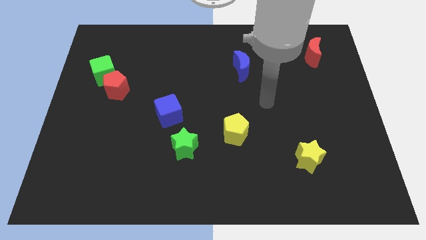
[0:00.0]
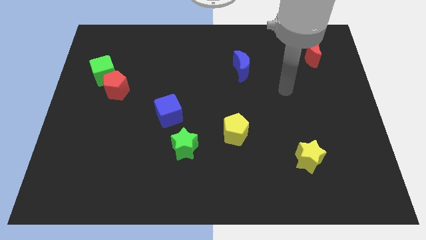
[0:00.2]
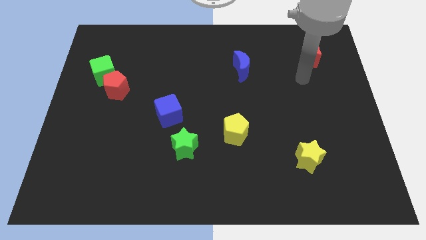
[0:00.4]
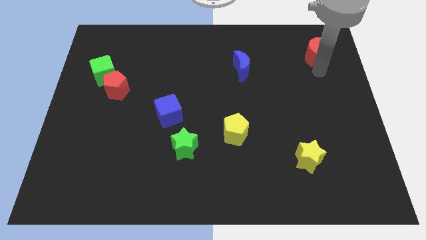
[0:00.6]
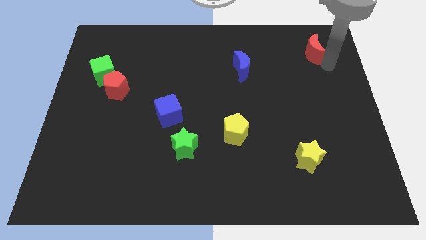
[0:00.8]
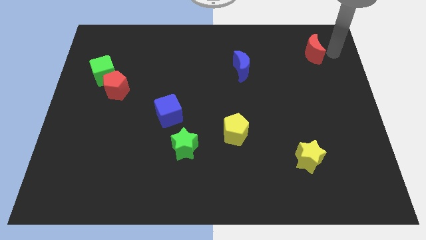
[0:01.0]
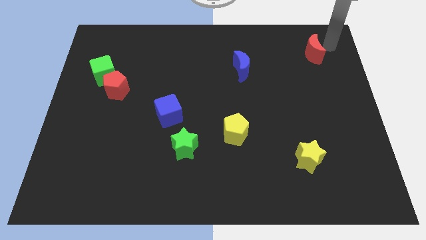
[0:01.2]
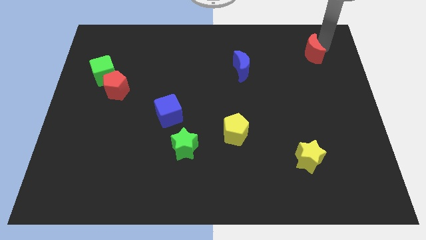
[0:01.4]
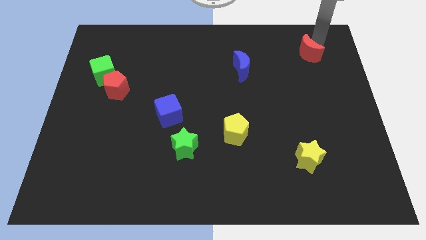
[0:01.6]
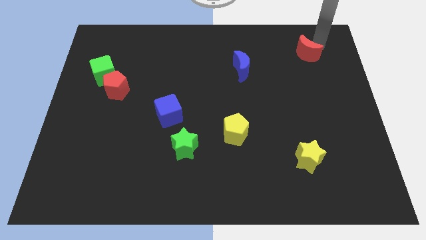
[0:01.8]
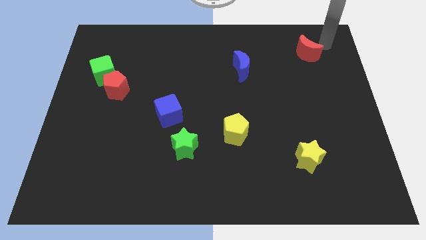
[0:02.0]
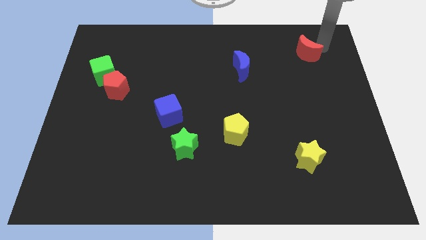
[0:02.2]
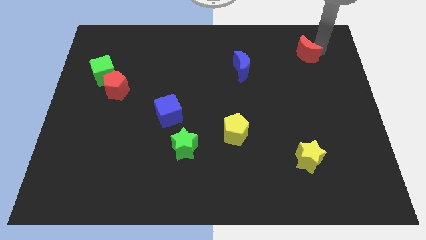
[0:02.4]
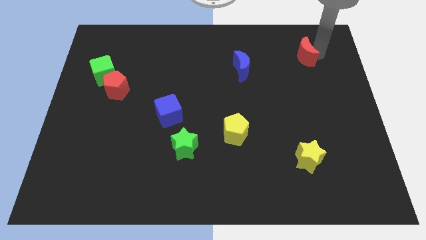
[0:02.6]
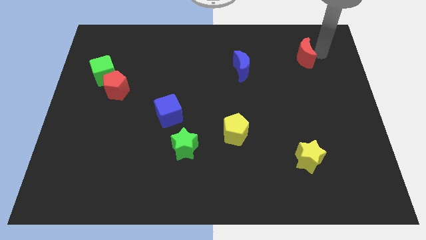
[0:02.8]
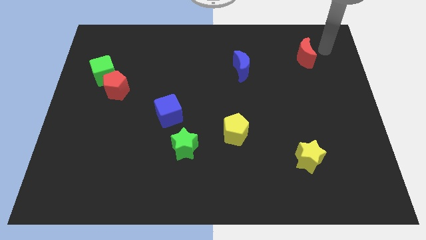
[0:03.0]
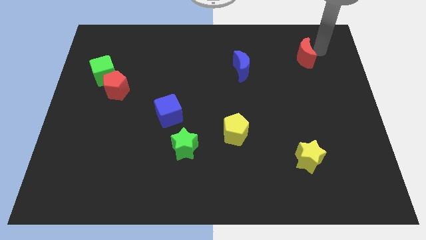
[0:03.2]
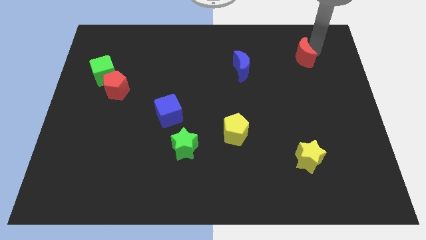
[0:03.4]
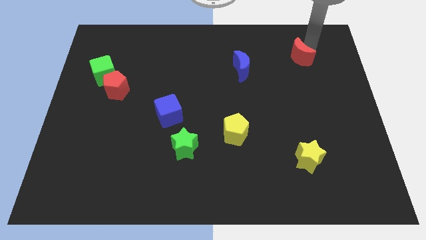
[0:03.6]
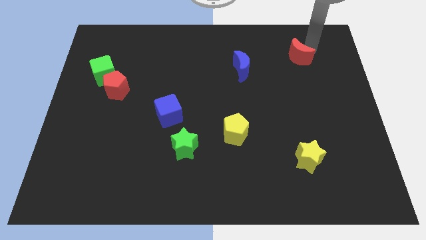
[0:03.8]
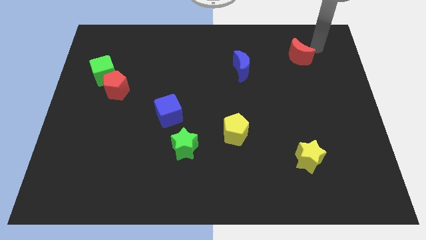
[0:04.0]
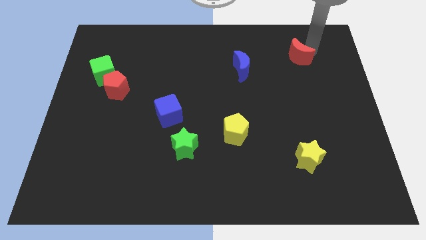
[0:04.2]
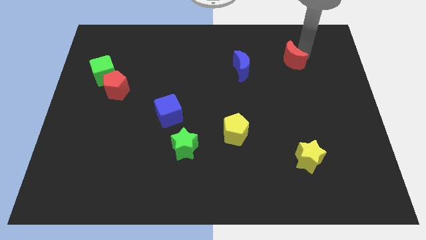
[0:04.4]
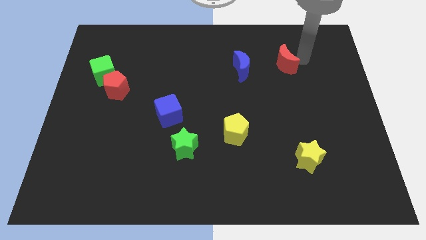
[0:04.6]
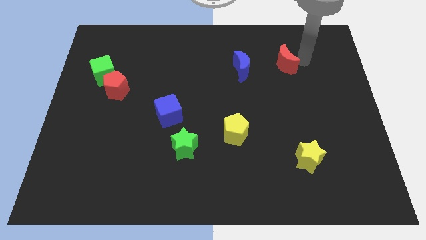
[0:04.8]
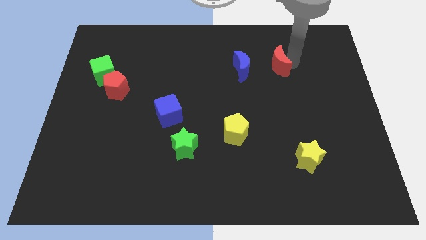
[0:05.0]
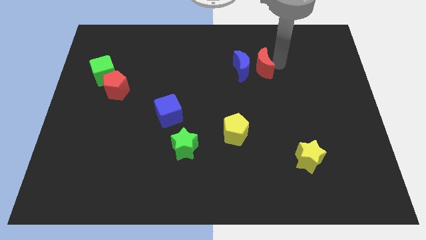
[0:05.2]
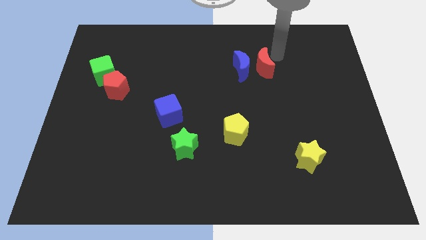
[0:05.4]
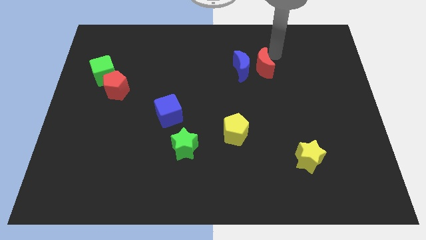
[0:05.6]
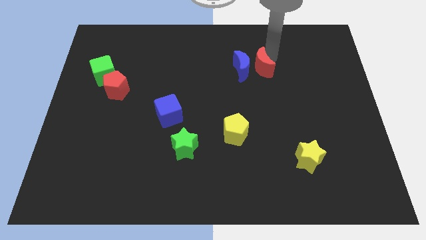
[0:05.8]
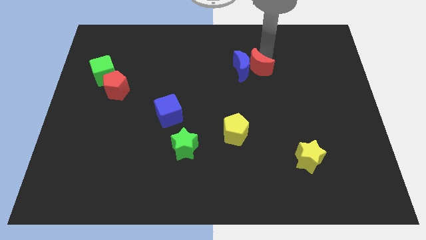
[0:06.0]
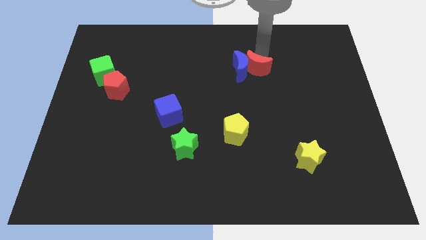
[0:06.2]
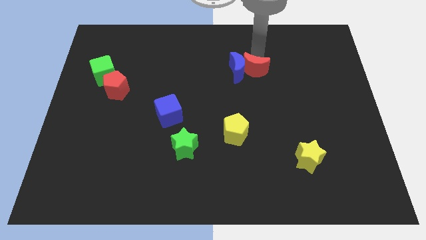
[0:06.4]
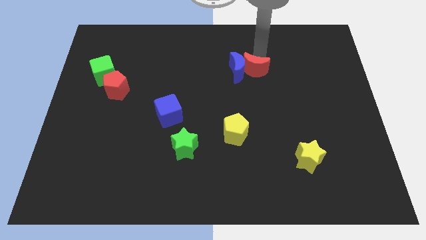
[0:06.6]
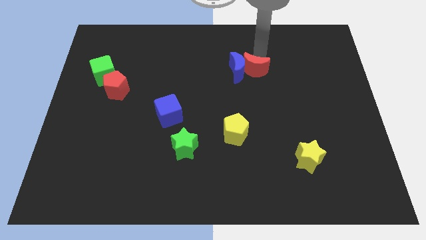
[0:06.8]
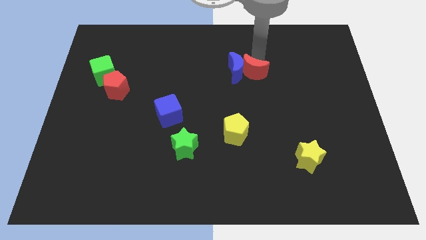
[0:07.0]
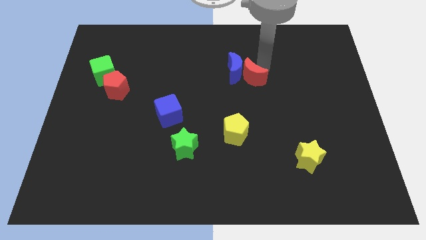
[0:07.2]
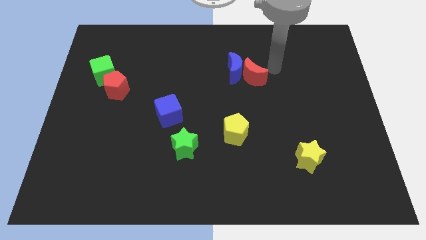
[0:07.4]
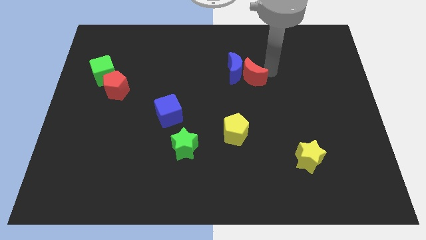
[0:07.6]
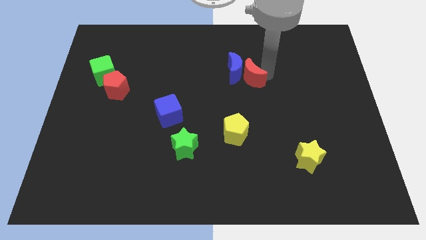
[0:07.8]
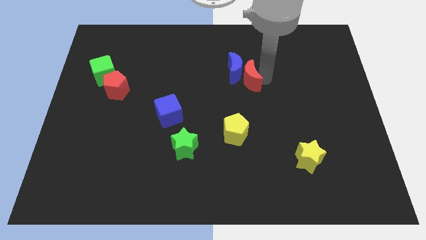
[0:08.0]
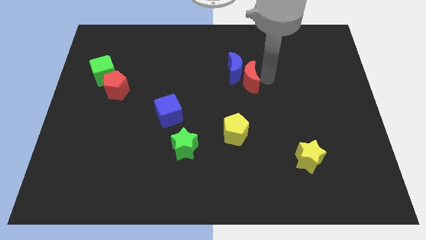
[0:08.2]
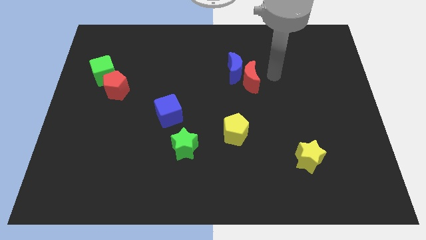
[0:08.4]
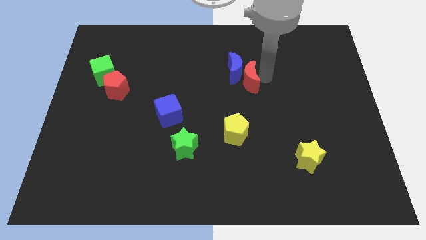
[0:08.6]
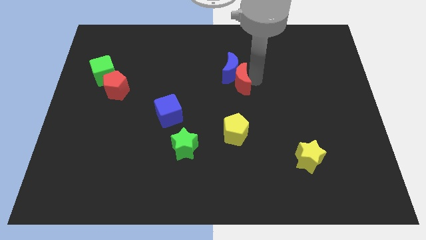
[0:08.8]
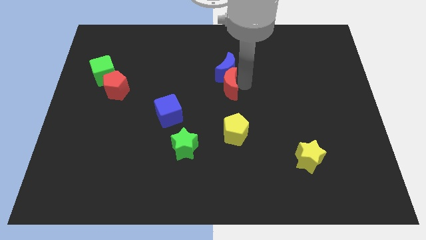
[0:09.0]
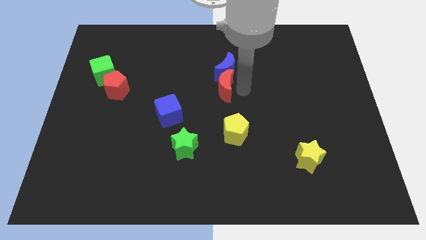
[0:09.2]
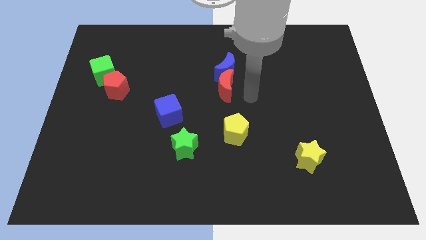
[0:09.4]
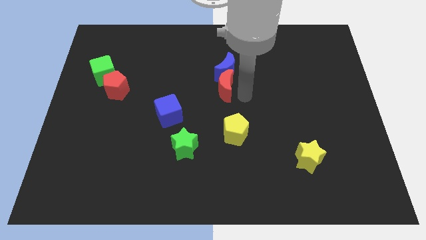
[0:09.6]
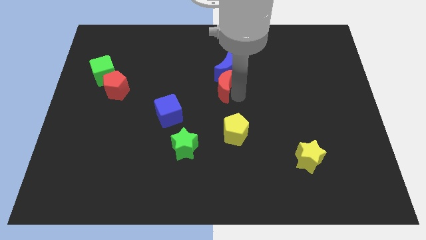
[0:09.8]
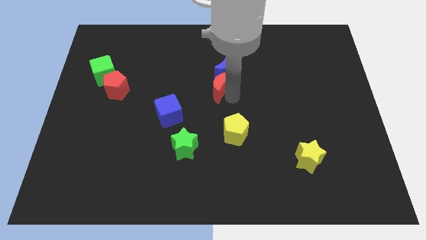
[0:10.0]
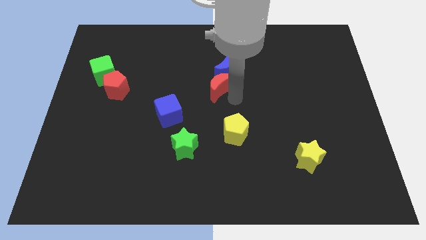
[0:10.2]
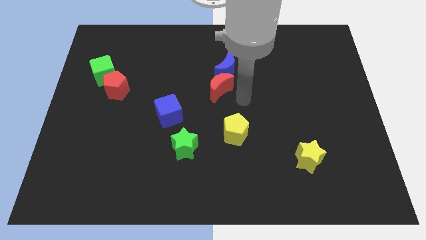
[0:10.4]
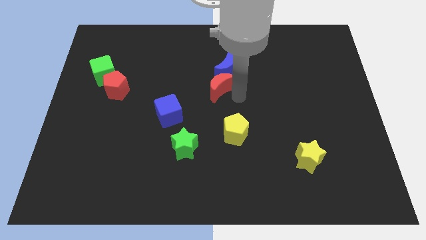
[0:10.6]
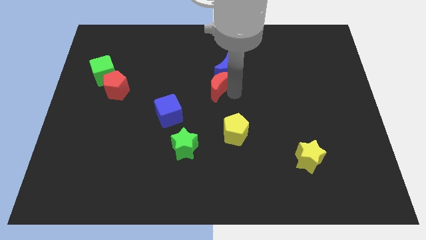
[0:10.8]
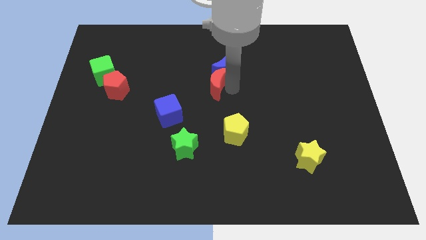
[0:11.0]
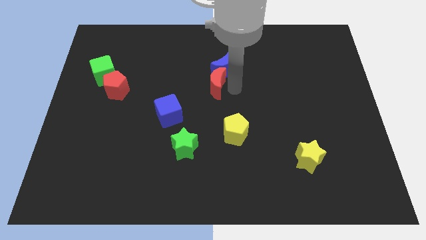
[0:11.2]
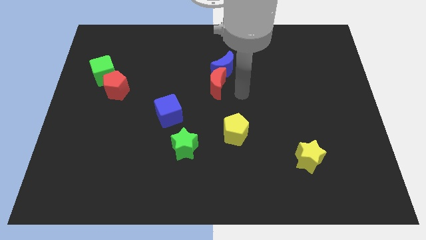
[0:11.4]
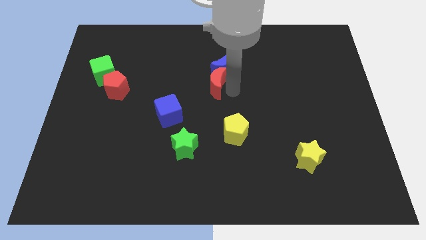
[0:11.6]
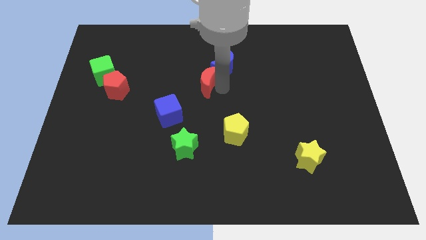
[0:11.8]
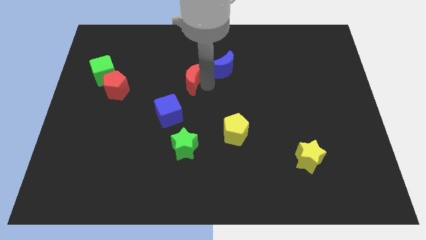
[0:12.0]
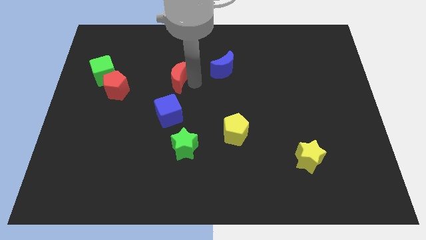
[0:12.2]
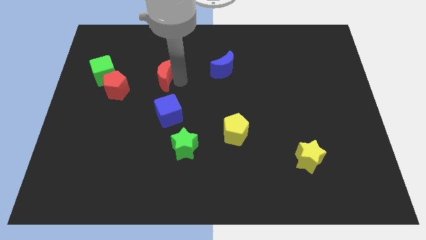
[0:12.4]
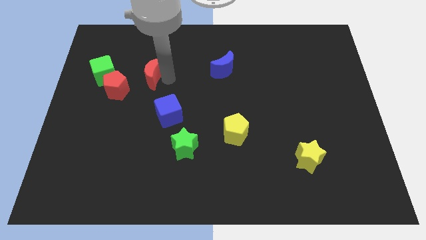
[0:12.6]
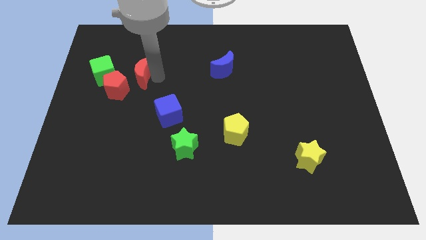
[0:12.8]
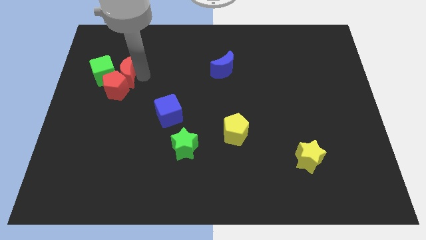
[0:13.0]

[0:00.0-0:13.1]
move the red moon close to the green cube

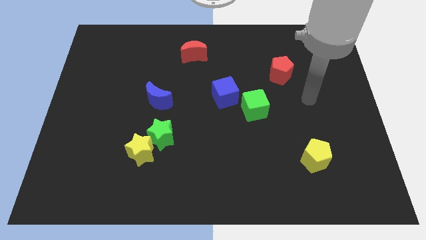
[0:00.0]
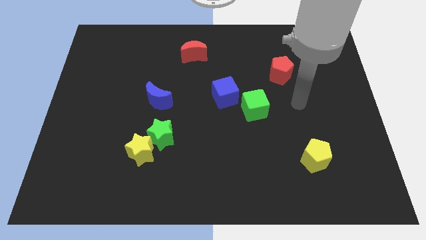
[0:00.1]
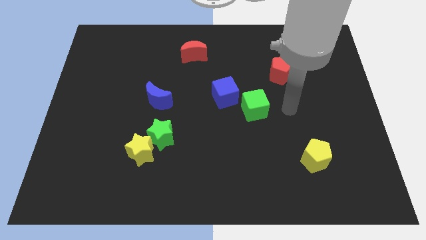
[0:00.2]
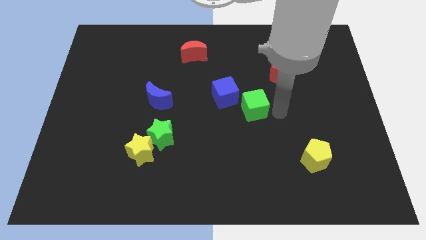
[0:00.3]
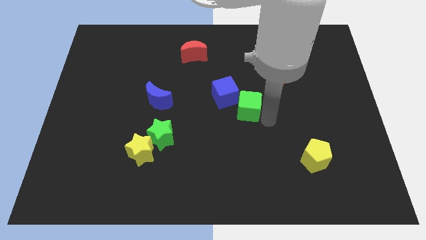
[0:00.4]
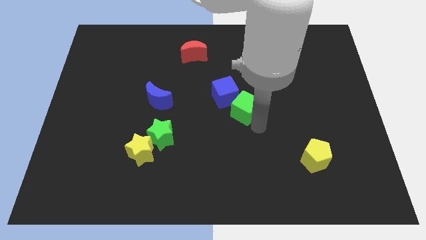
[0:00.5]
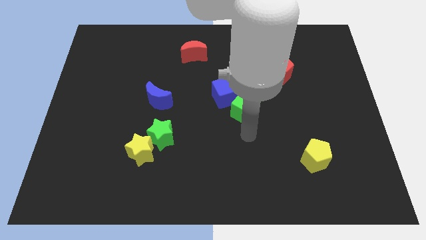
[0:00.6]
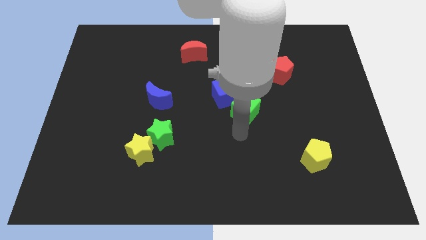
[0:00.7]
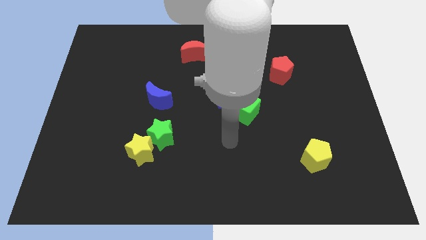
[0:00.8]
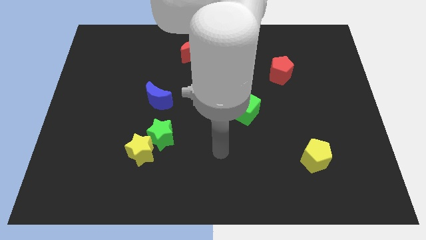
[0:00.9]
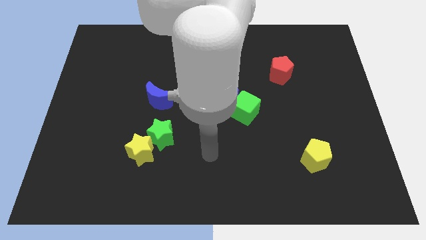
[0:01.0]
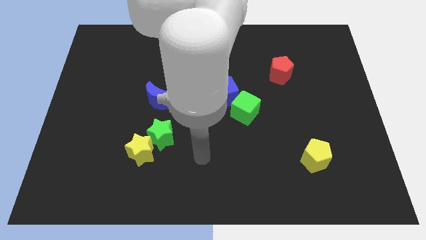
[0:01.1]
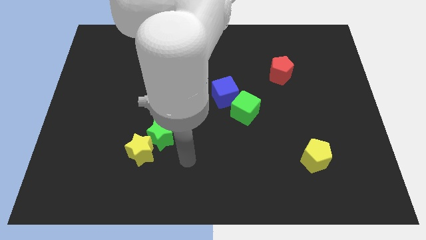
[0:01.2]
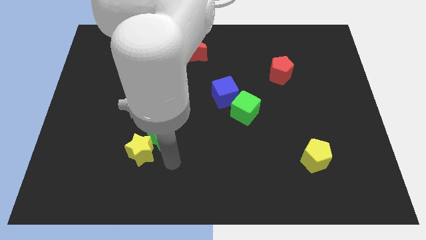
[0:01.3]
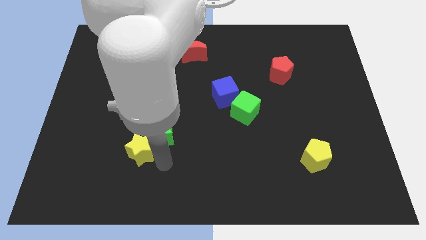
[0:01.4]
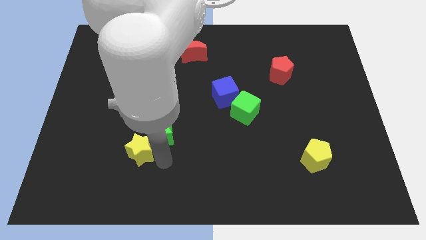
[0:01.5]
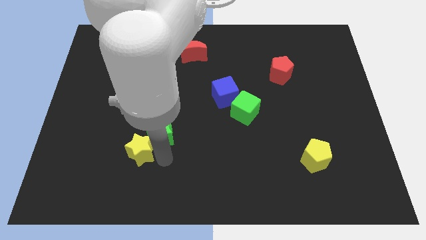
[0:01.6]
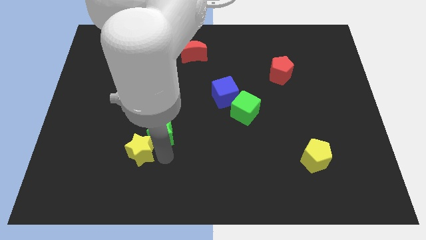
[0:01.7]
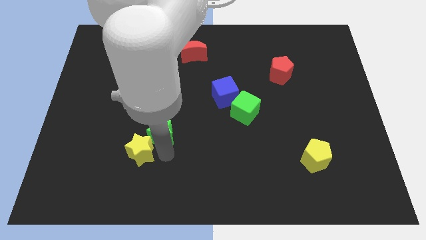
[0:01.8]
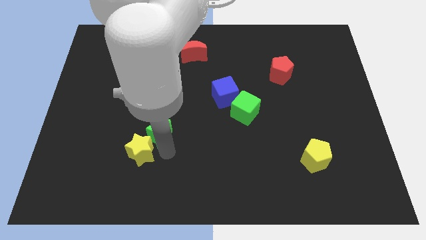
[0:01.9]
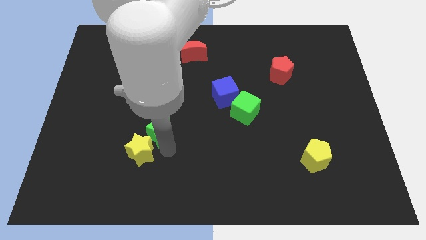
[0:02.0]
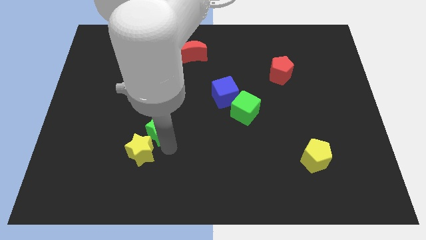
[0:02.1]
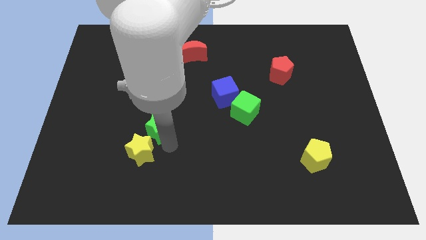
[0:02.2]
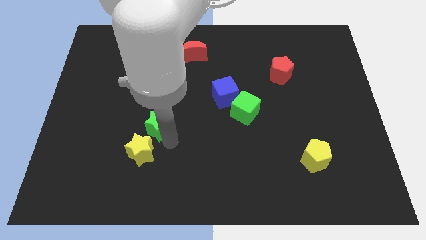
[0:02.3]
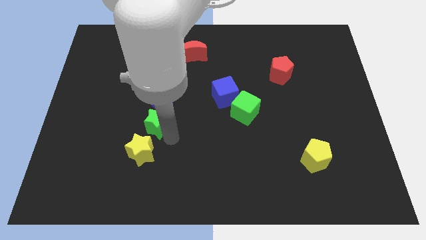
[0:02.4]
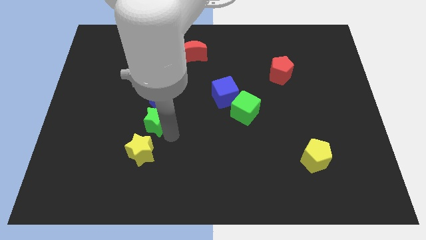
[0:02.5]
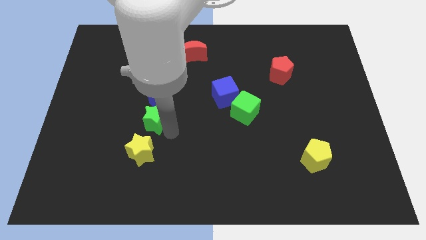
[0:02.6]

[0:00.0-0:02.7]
put the green star to the blue moon
